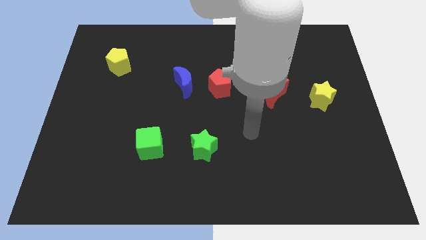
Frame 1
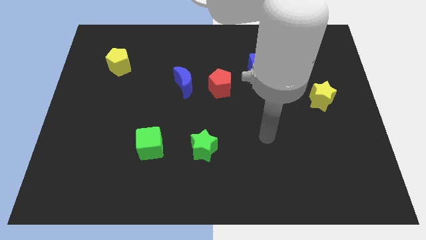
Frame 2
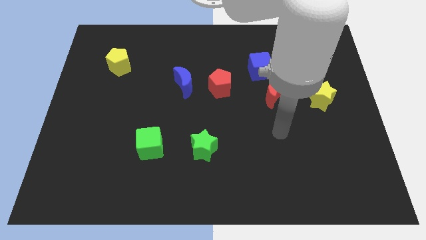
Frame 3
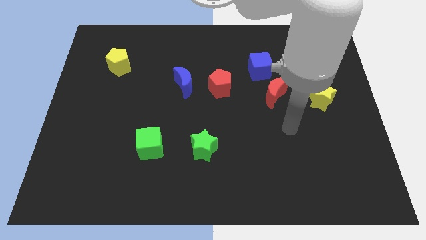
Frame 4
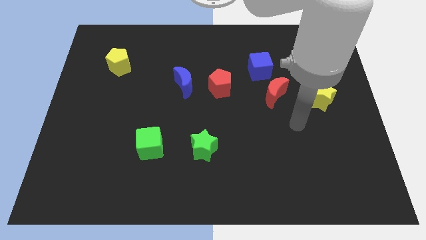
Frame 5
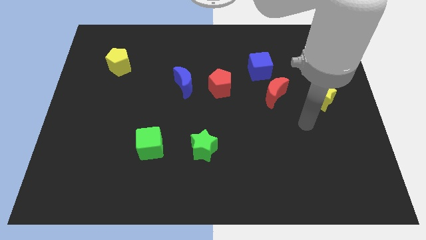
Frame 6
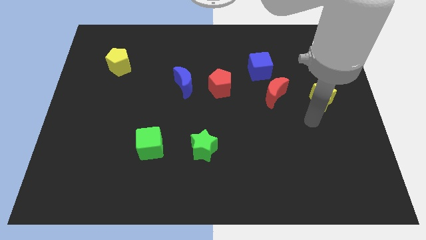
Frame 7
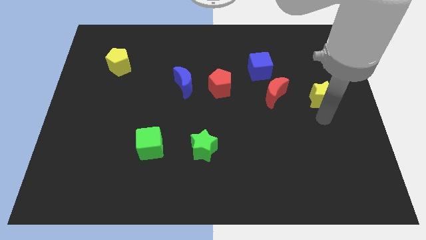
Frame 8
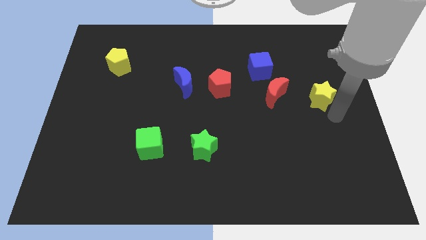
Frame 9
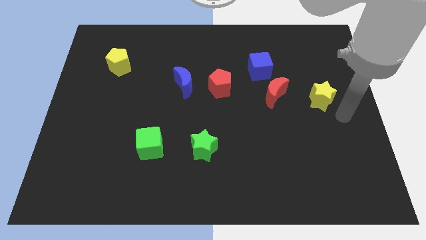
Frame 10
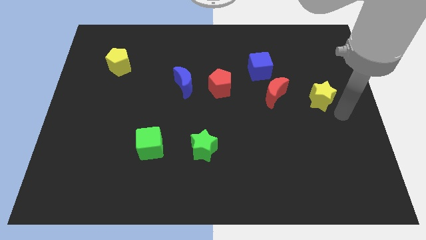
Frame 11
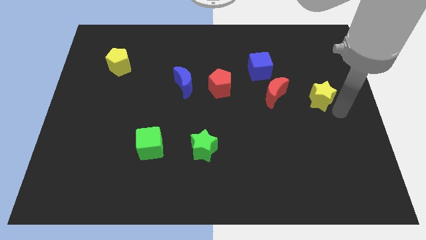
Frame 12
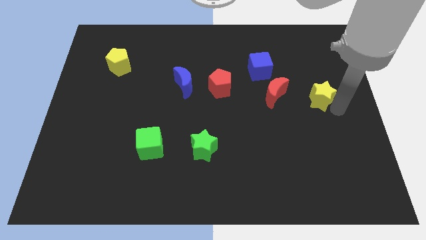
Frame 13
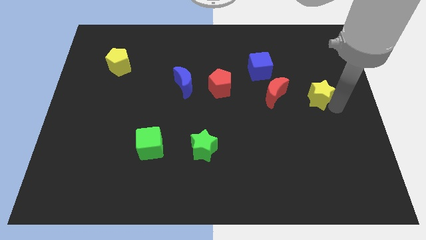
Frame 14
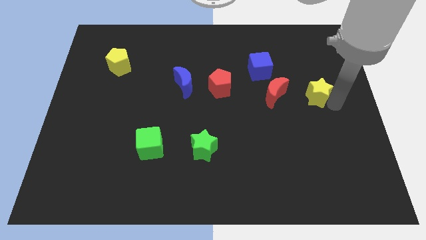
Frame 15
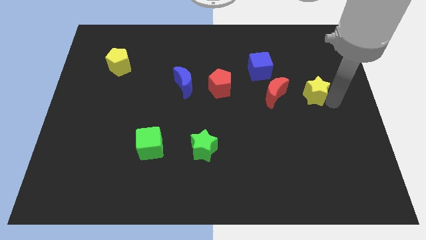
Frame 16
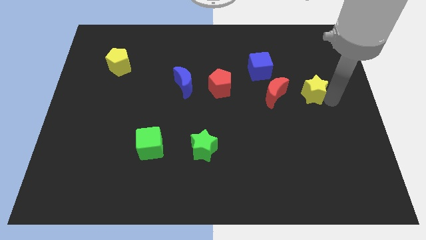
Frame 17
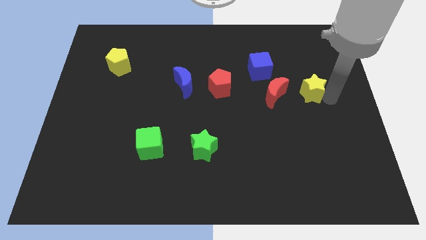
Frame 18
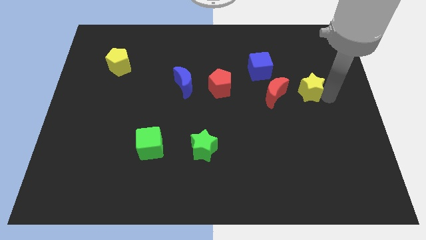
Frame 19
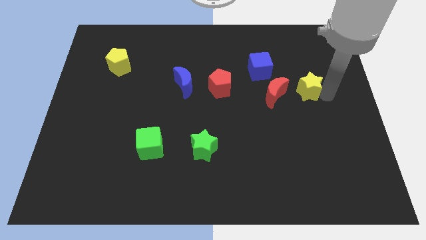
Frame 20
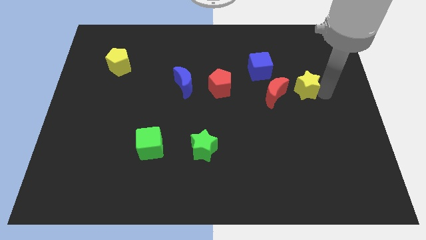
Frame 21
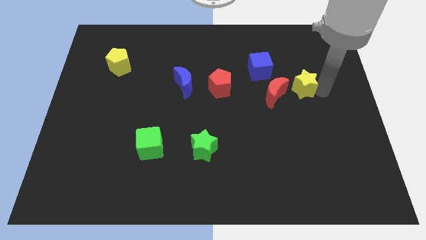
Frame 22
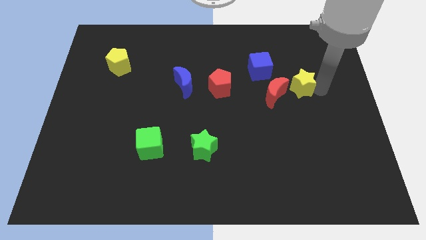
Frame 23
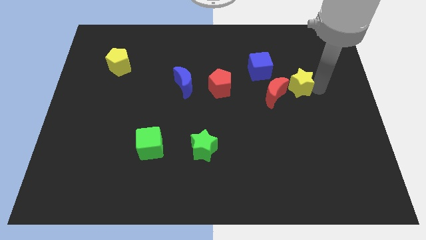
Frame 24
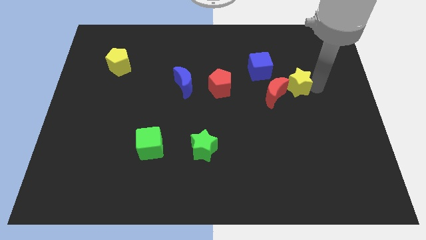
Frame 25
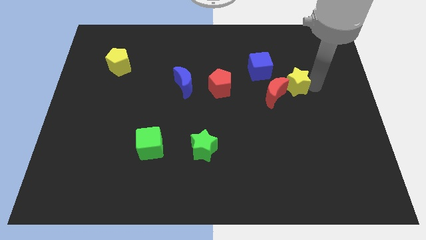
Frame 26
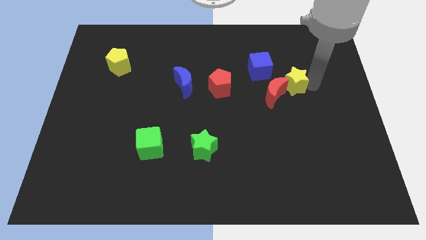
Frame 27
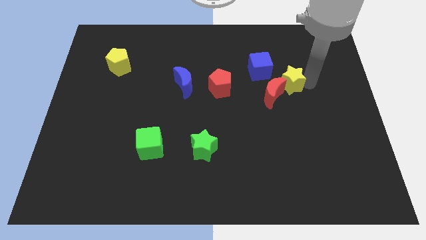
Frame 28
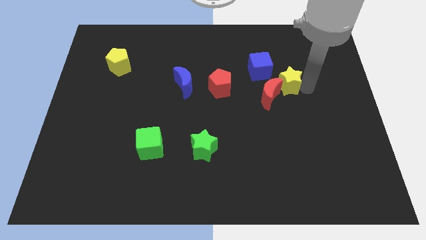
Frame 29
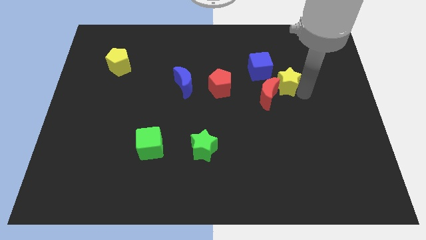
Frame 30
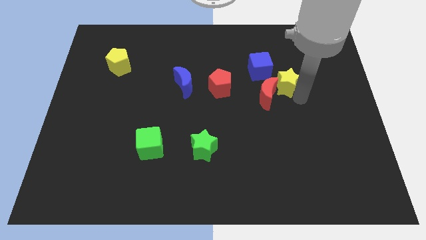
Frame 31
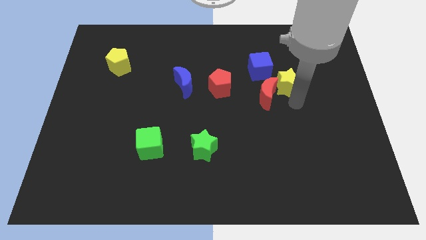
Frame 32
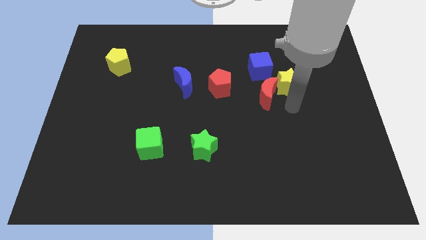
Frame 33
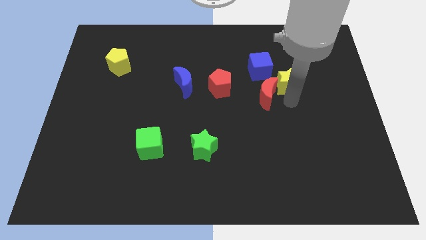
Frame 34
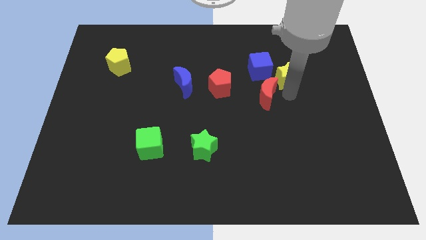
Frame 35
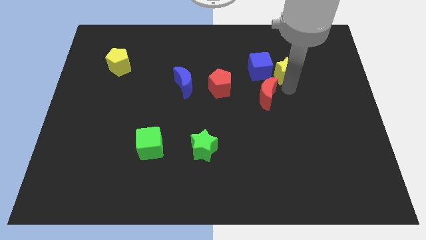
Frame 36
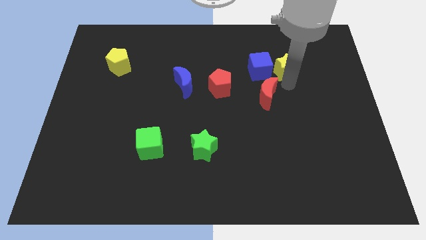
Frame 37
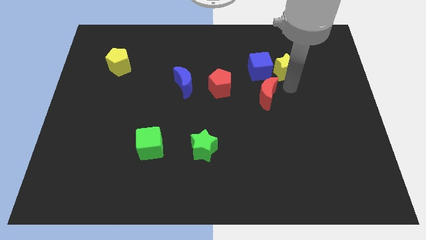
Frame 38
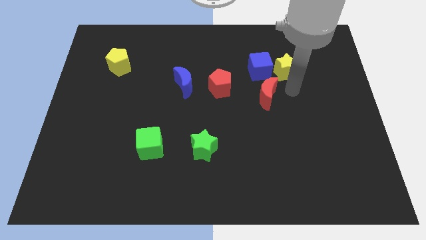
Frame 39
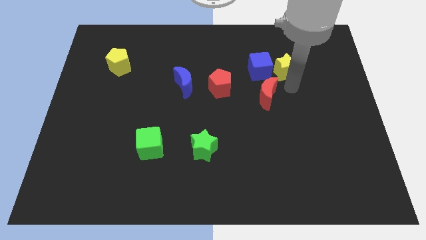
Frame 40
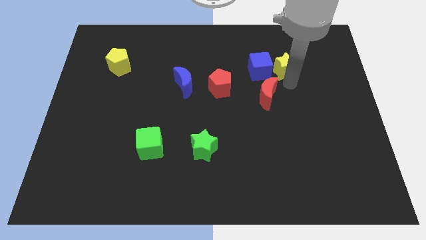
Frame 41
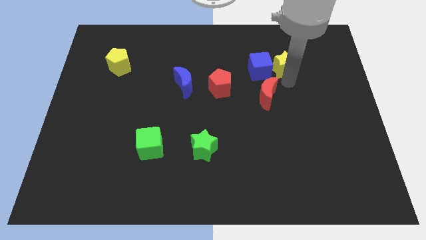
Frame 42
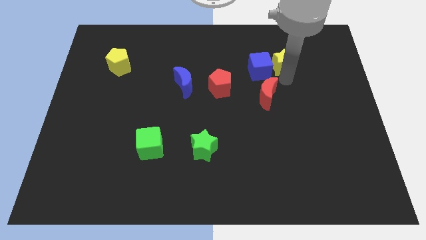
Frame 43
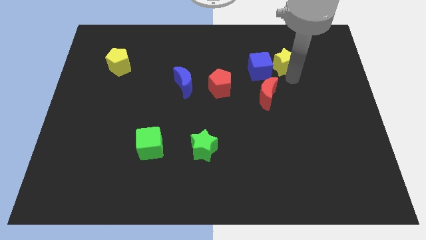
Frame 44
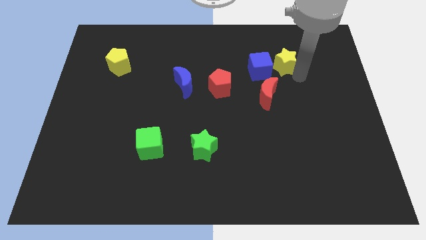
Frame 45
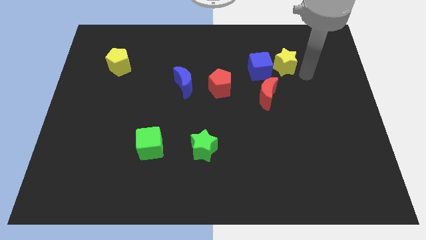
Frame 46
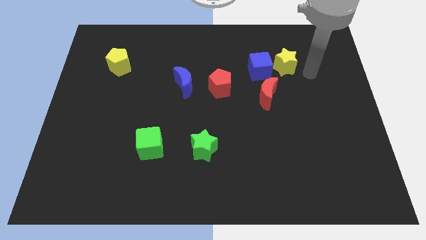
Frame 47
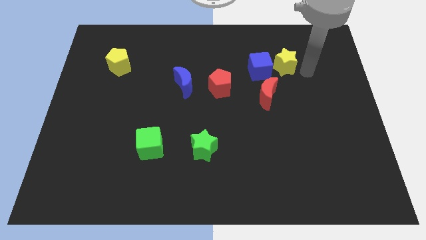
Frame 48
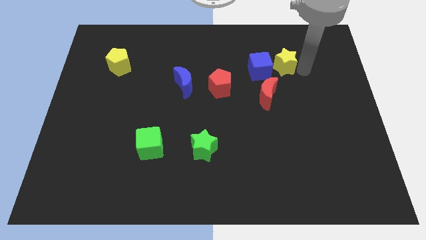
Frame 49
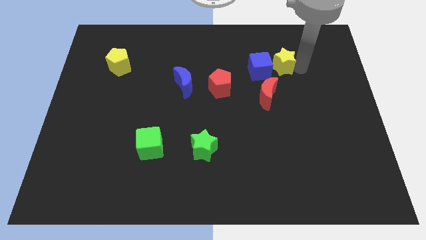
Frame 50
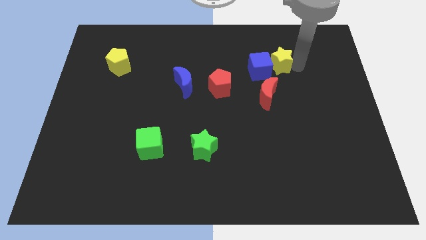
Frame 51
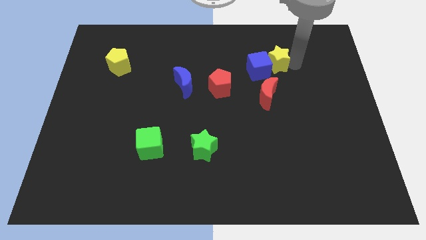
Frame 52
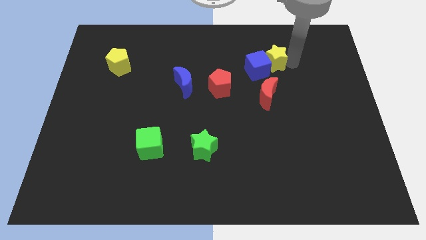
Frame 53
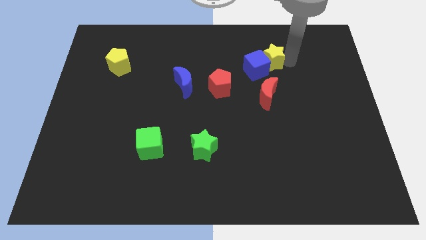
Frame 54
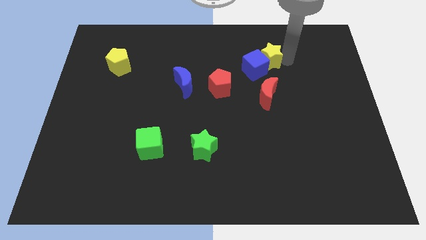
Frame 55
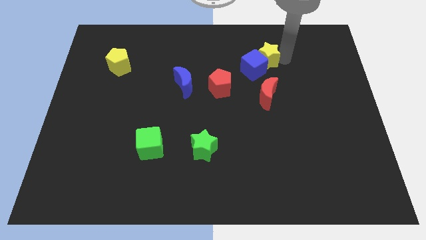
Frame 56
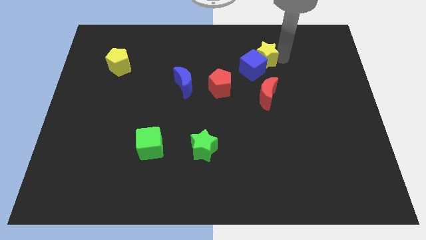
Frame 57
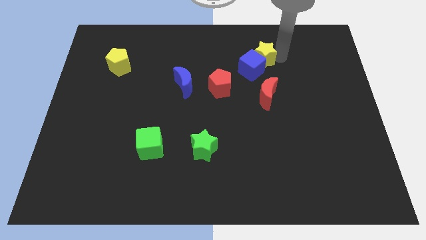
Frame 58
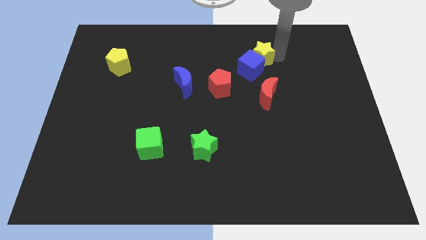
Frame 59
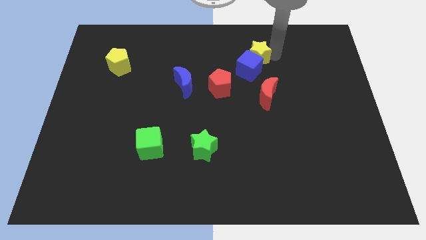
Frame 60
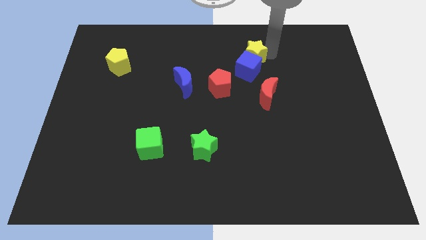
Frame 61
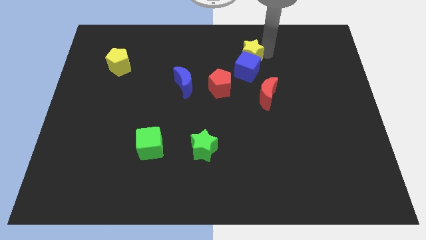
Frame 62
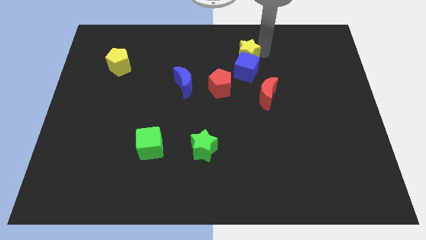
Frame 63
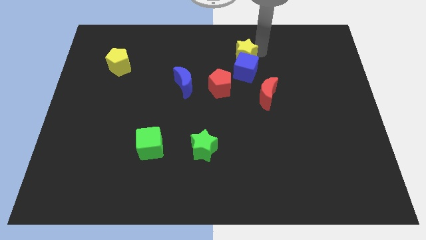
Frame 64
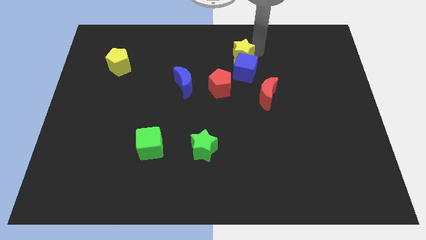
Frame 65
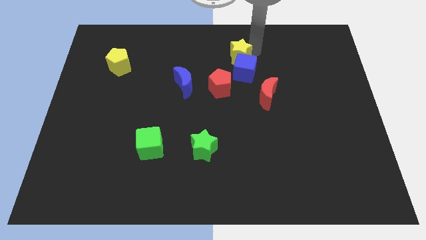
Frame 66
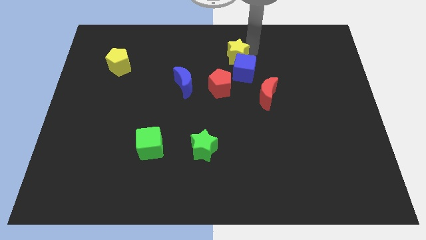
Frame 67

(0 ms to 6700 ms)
move the yellow star to the top side of the red pentagon

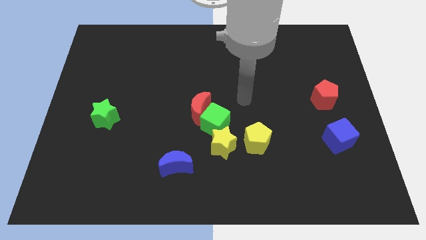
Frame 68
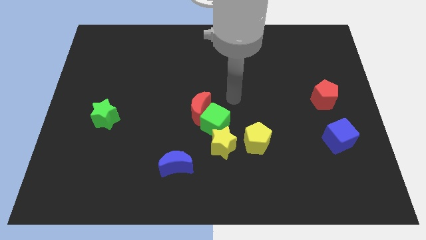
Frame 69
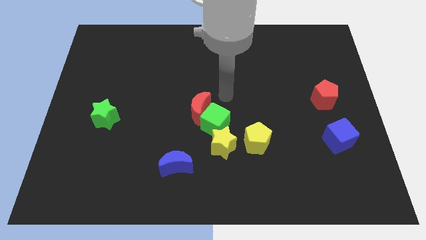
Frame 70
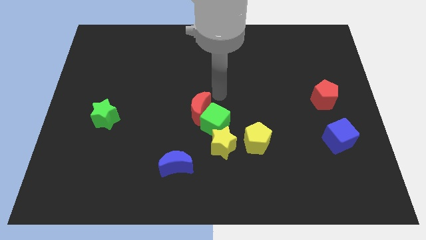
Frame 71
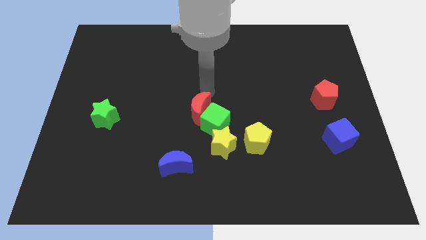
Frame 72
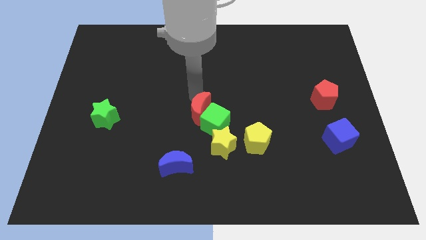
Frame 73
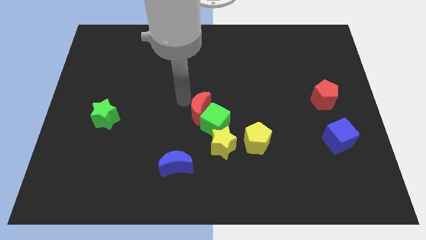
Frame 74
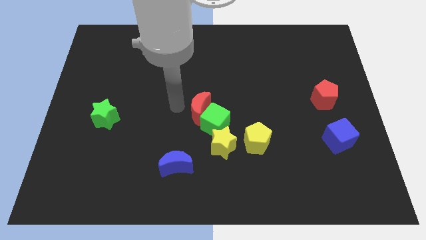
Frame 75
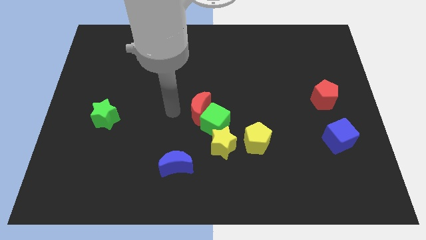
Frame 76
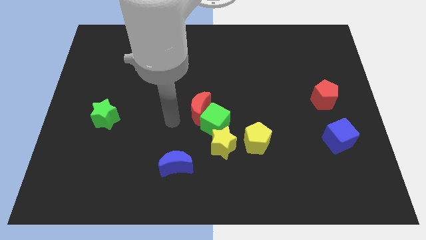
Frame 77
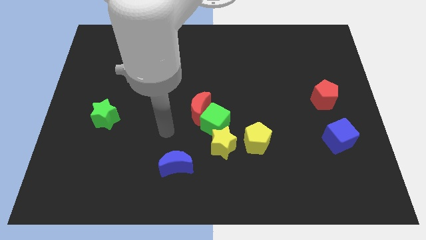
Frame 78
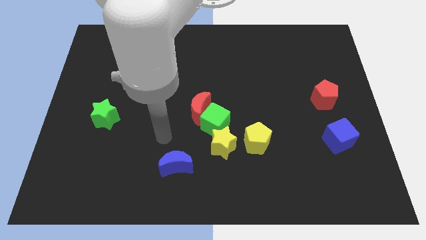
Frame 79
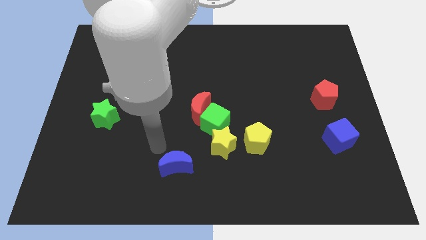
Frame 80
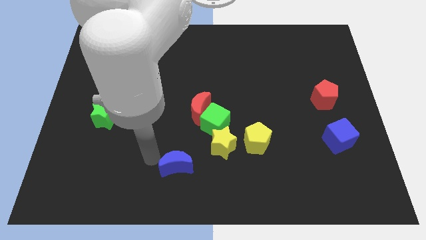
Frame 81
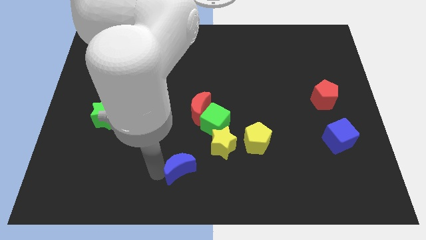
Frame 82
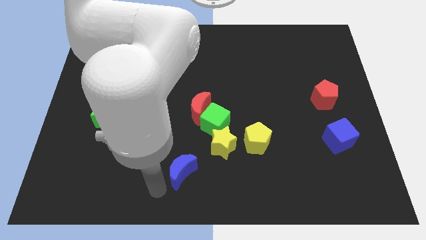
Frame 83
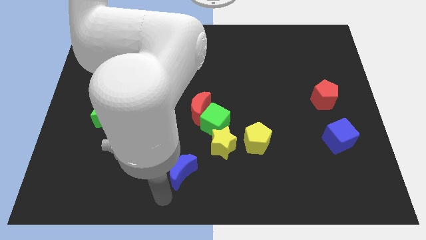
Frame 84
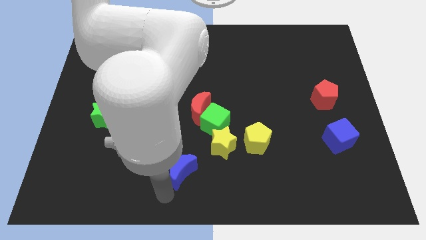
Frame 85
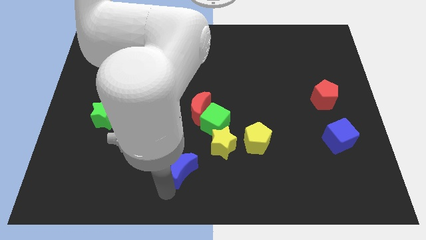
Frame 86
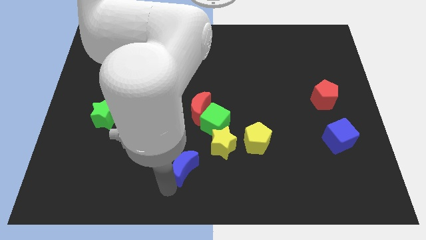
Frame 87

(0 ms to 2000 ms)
push the blue moon below the red moon
